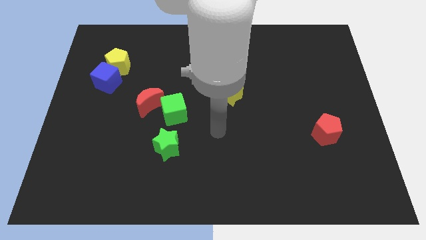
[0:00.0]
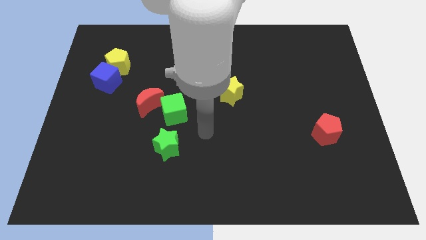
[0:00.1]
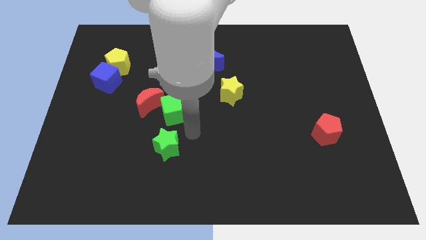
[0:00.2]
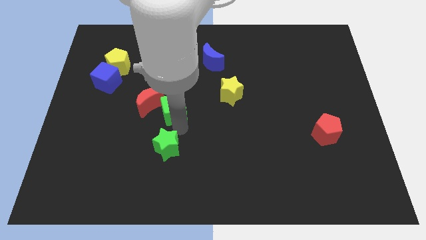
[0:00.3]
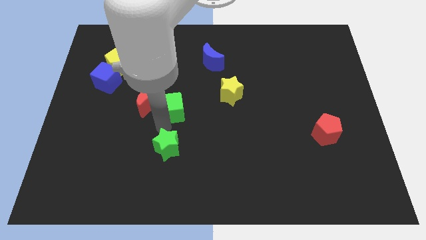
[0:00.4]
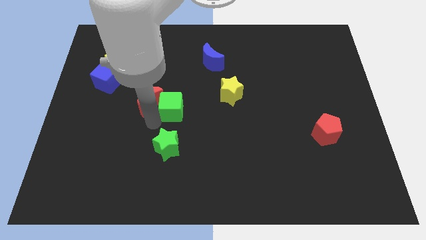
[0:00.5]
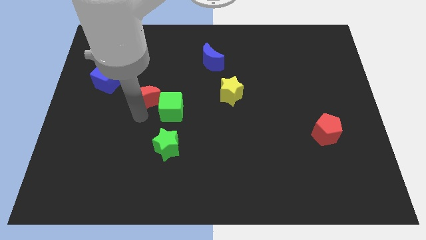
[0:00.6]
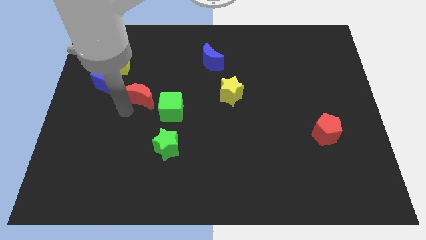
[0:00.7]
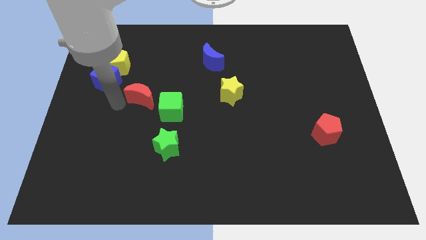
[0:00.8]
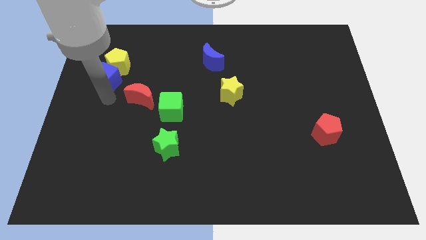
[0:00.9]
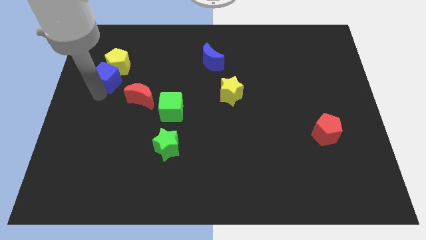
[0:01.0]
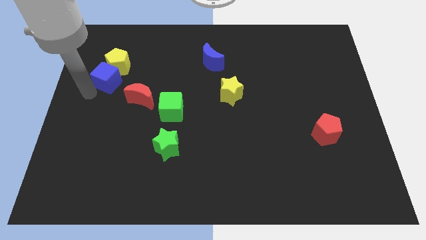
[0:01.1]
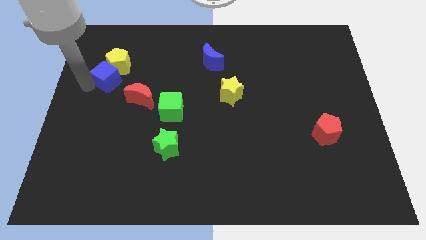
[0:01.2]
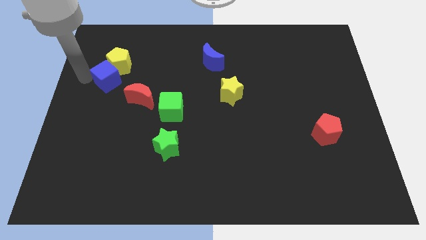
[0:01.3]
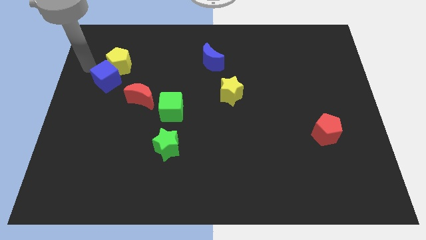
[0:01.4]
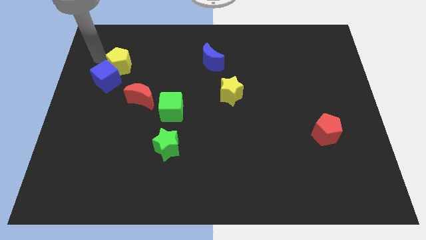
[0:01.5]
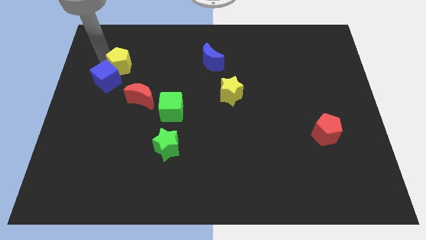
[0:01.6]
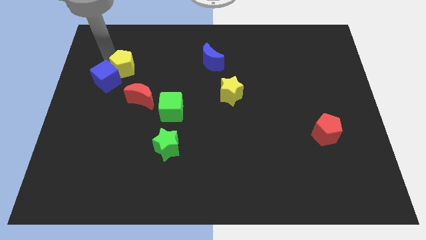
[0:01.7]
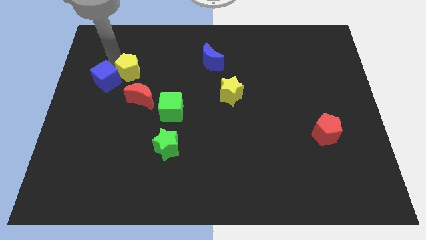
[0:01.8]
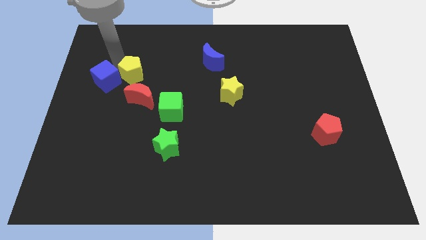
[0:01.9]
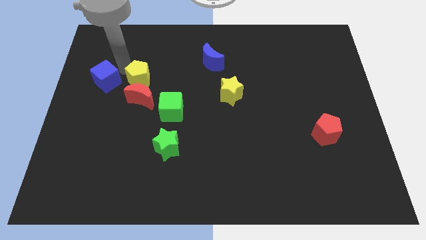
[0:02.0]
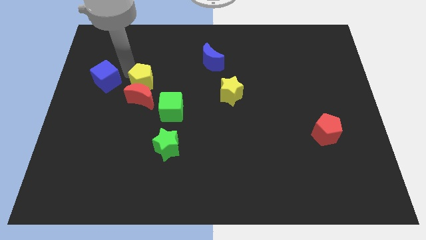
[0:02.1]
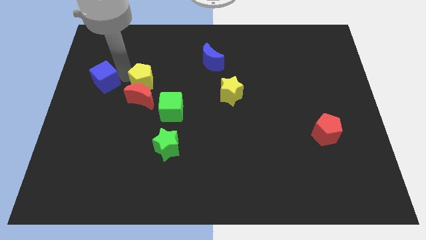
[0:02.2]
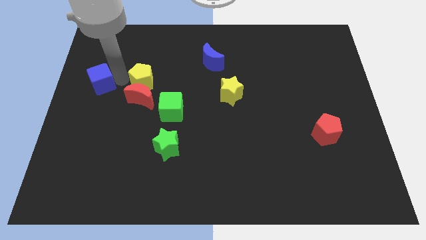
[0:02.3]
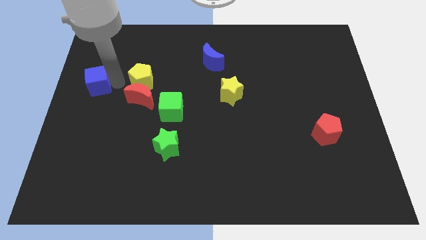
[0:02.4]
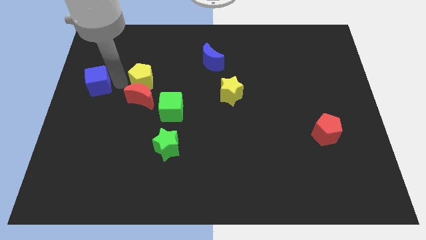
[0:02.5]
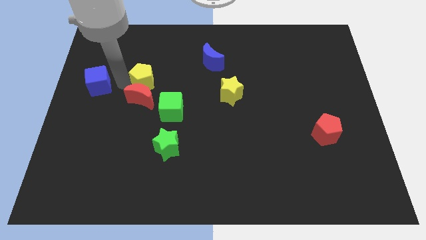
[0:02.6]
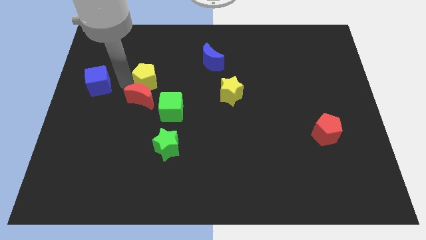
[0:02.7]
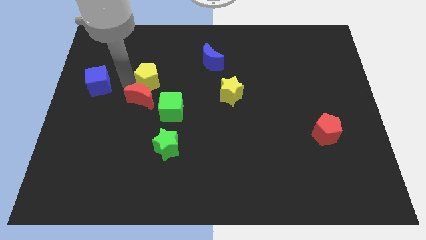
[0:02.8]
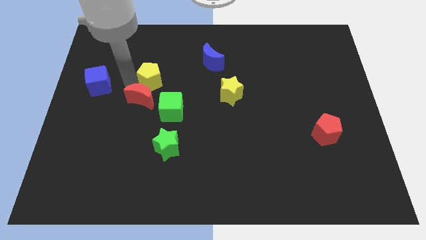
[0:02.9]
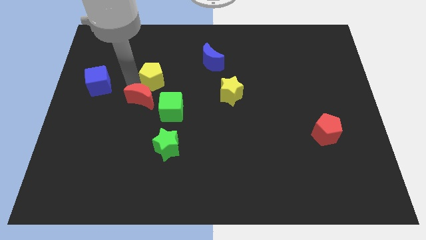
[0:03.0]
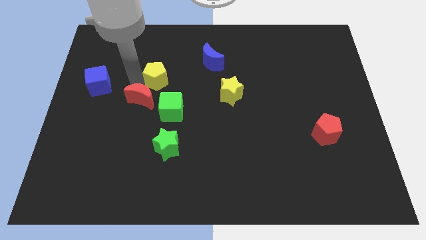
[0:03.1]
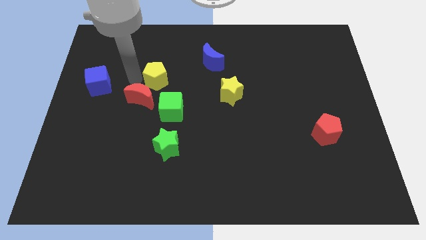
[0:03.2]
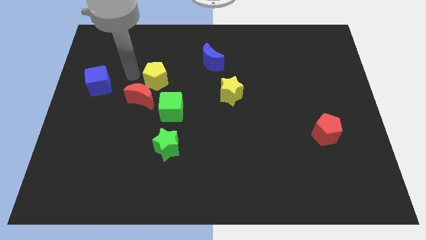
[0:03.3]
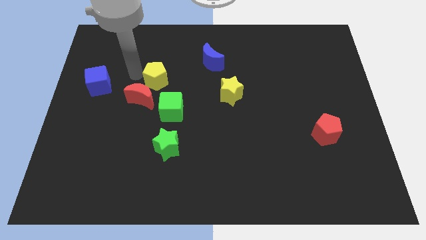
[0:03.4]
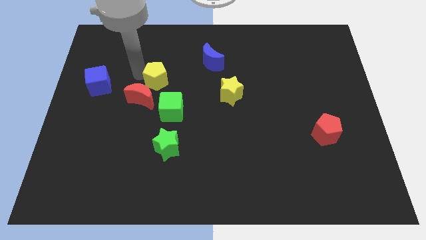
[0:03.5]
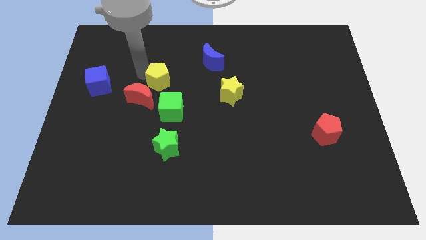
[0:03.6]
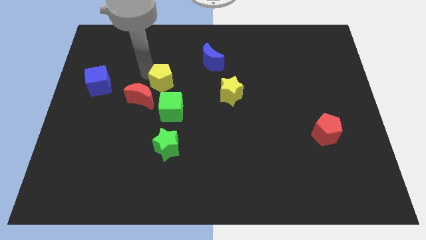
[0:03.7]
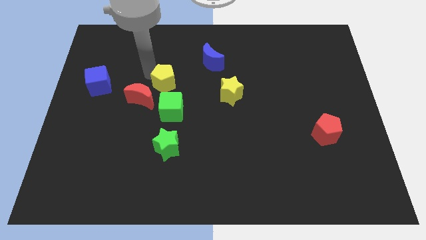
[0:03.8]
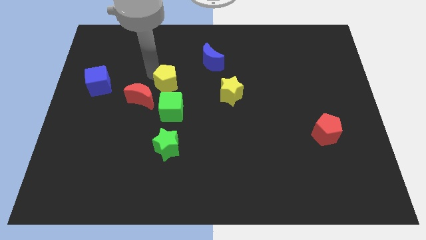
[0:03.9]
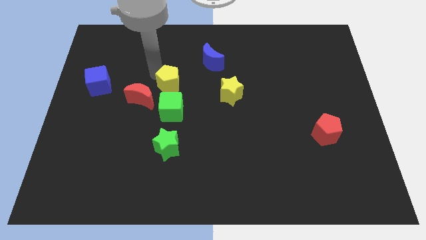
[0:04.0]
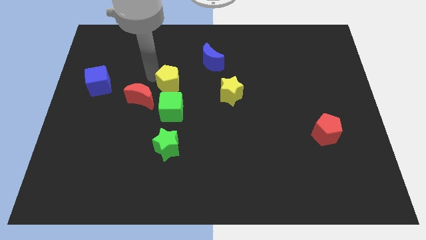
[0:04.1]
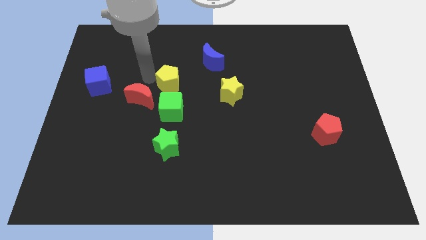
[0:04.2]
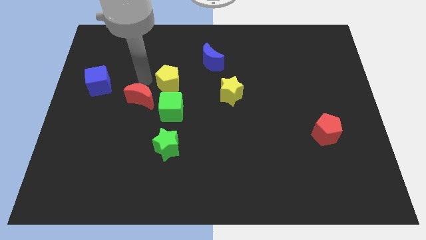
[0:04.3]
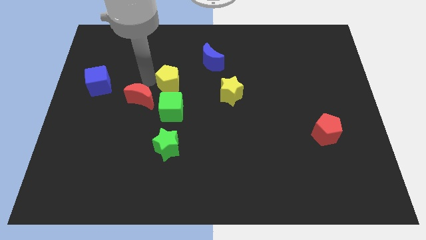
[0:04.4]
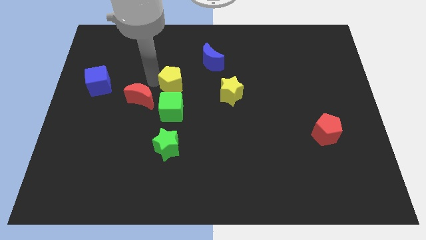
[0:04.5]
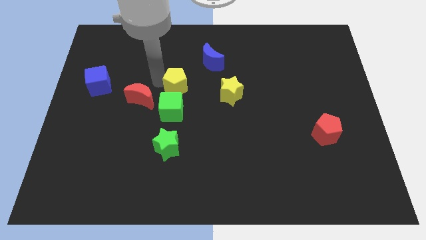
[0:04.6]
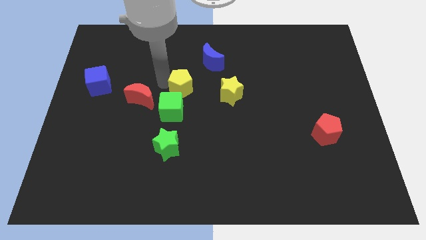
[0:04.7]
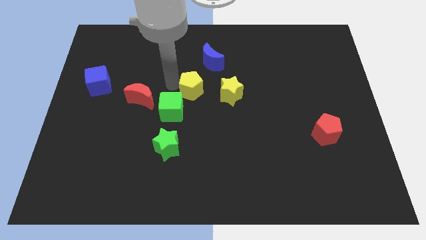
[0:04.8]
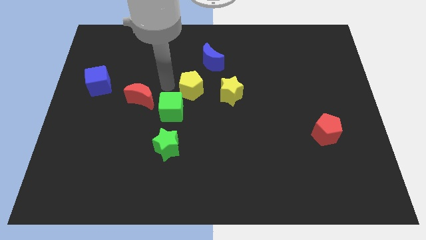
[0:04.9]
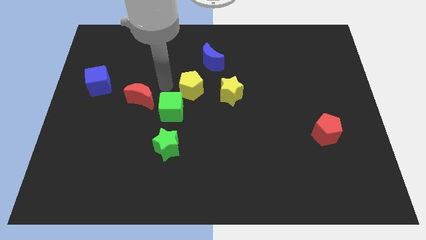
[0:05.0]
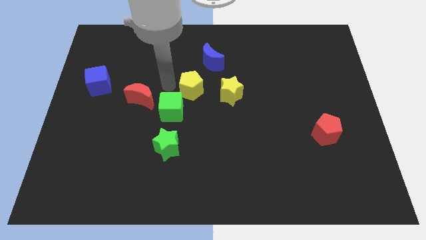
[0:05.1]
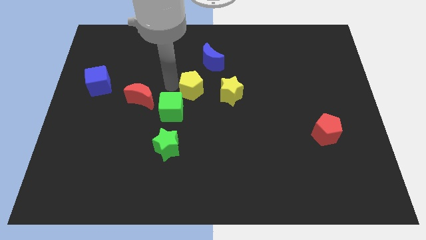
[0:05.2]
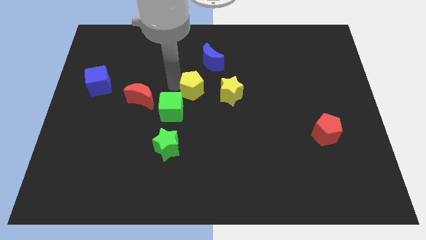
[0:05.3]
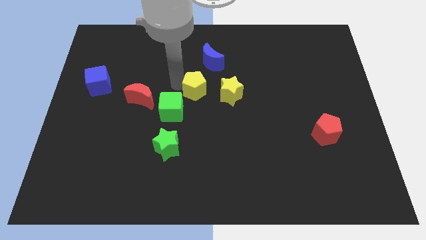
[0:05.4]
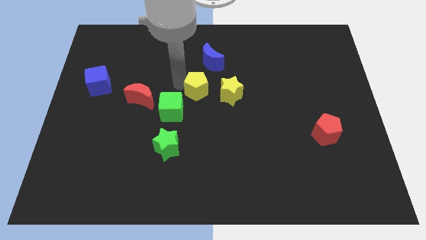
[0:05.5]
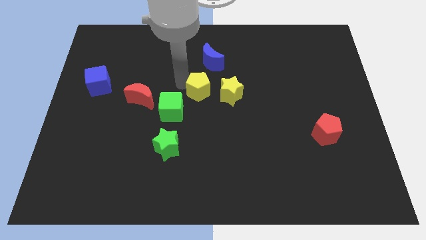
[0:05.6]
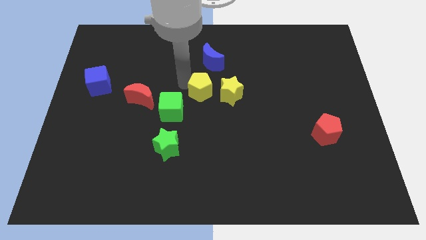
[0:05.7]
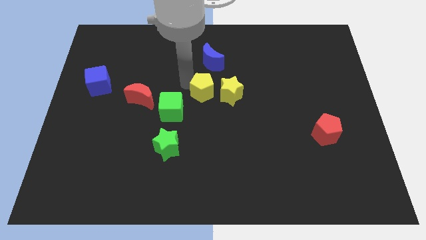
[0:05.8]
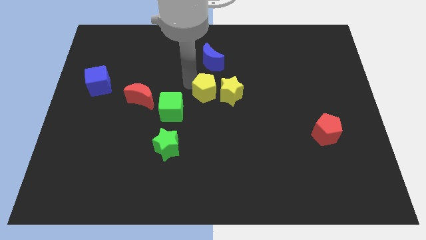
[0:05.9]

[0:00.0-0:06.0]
put the yellow pentagon to the yellow star

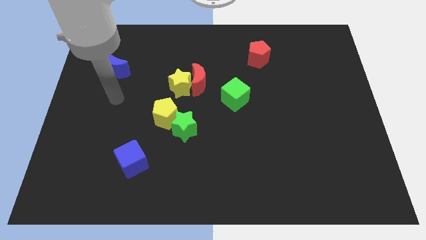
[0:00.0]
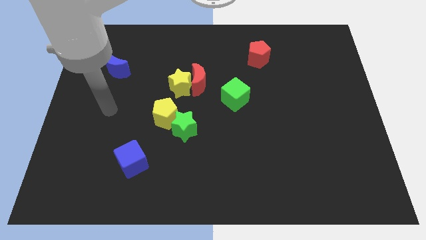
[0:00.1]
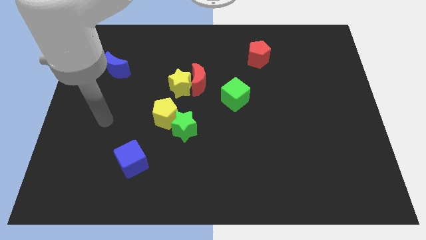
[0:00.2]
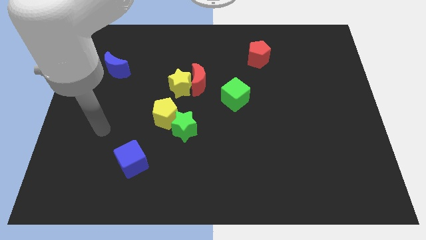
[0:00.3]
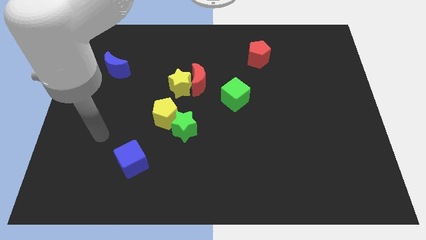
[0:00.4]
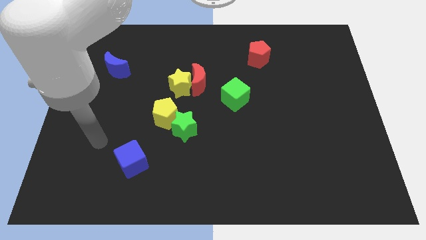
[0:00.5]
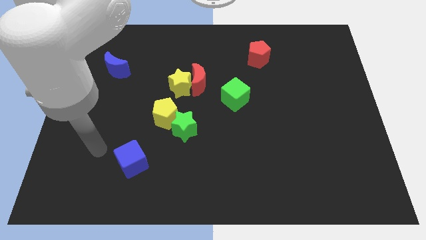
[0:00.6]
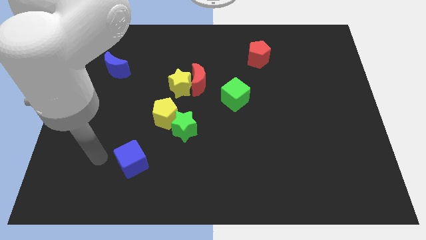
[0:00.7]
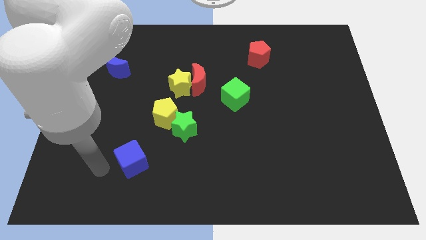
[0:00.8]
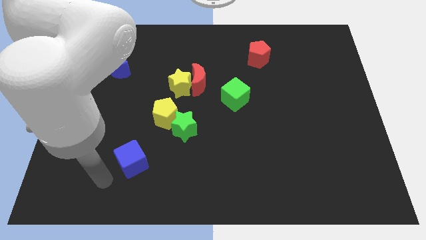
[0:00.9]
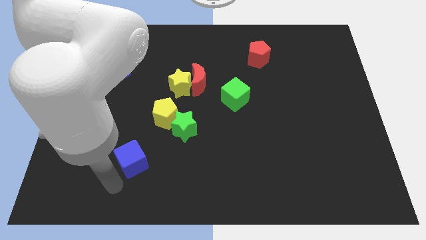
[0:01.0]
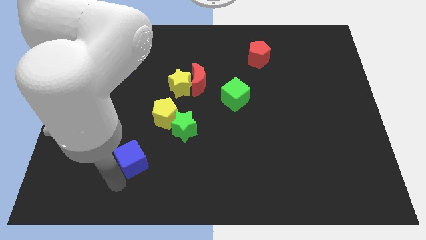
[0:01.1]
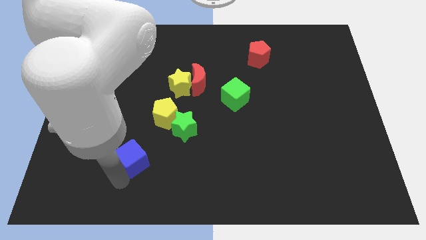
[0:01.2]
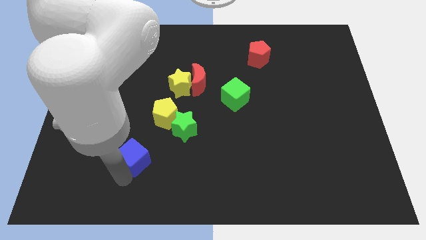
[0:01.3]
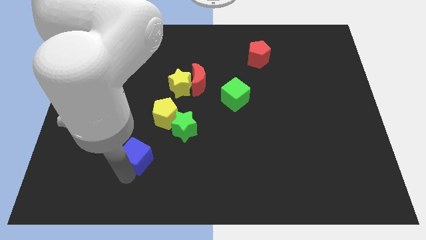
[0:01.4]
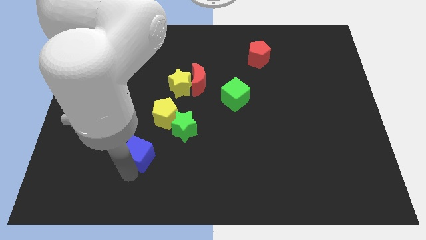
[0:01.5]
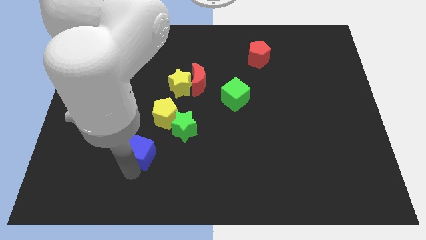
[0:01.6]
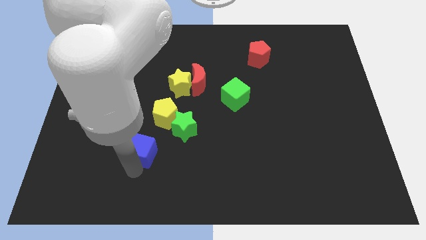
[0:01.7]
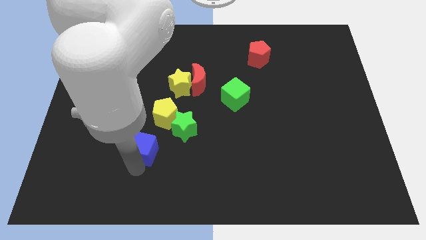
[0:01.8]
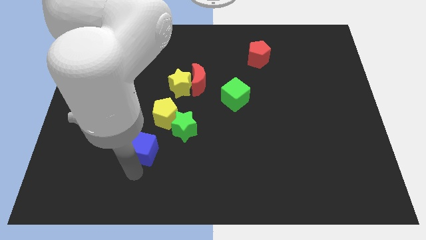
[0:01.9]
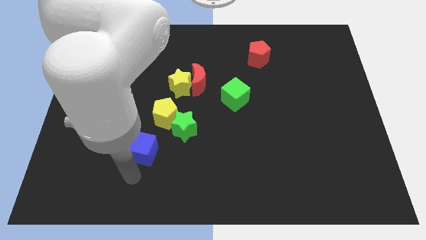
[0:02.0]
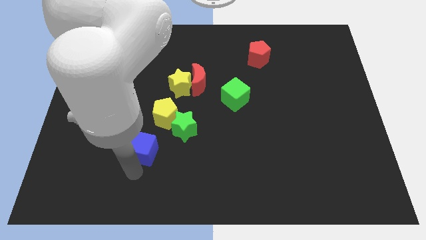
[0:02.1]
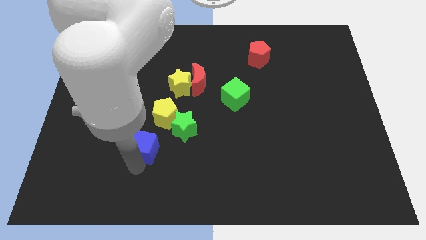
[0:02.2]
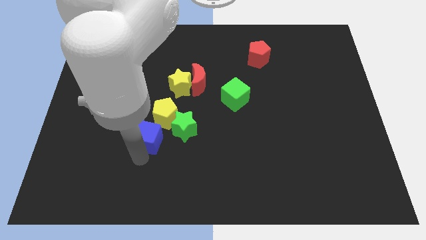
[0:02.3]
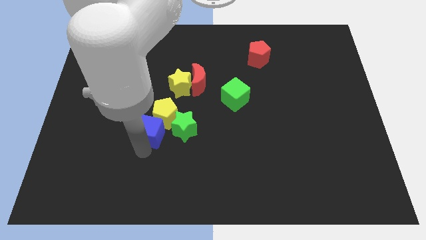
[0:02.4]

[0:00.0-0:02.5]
put the blue cube next to the yellow pentagon
